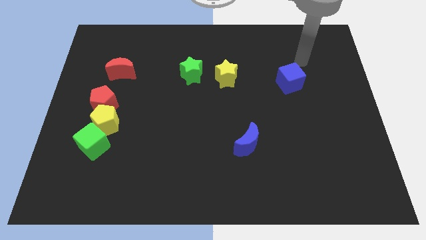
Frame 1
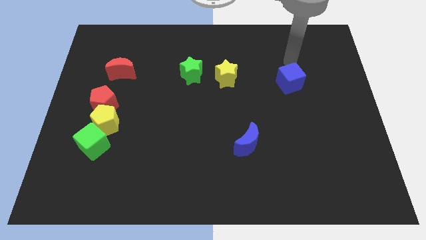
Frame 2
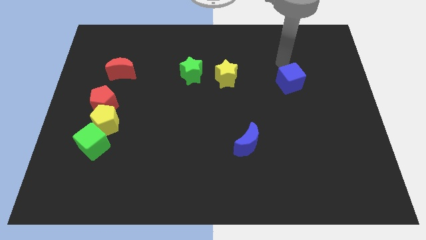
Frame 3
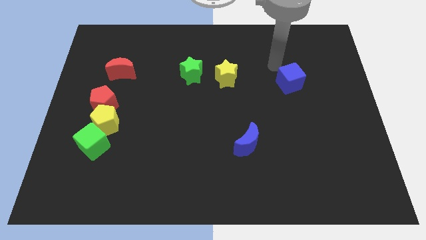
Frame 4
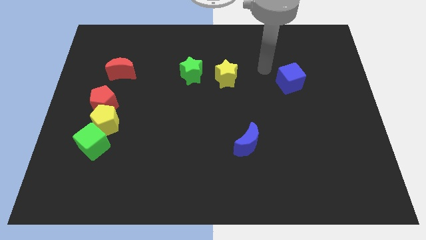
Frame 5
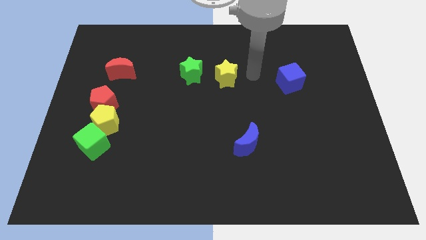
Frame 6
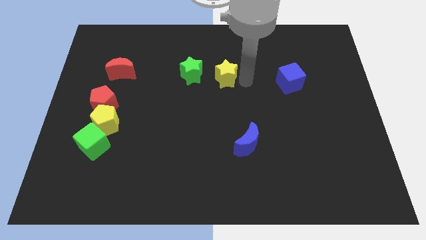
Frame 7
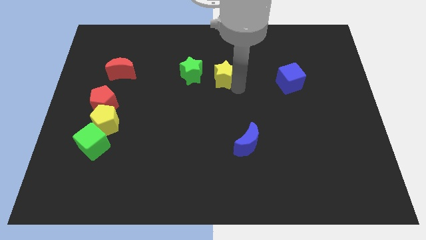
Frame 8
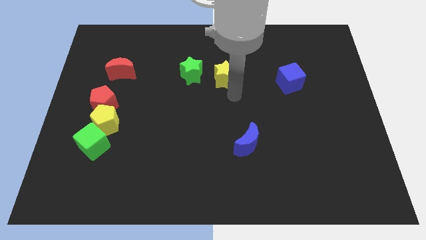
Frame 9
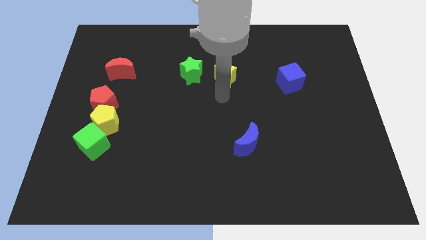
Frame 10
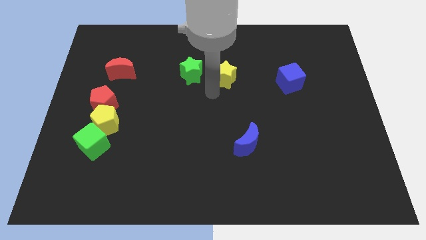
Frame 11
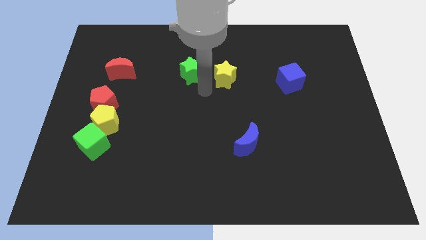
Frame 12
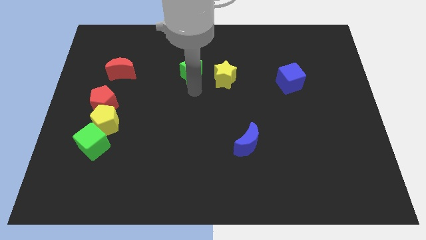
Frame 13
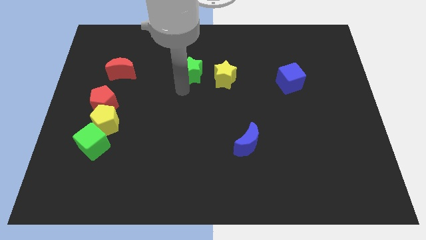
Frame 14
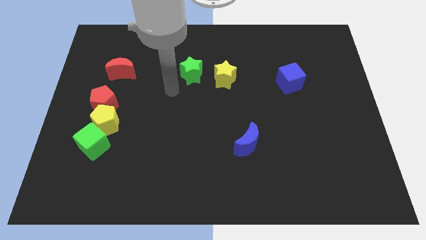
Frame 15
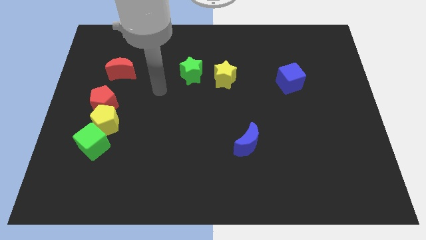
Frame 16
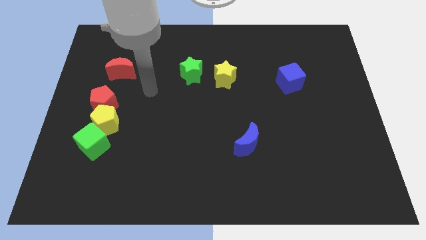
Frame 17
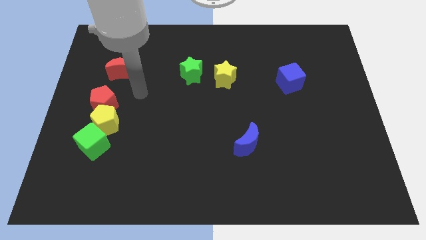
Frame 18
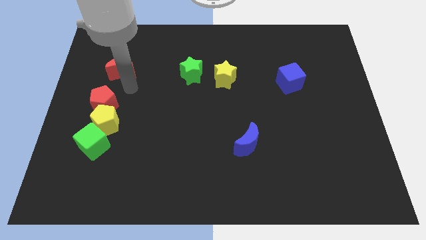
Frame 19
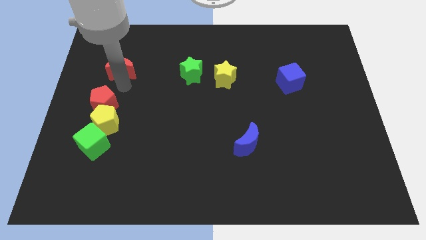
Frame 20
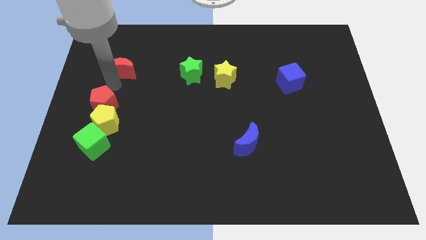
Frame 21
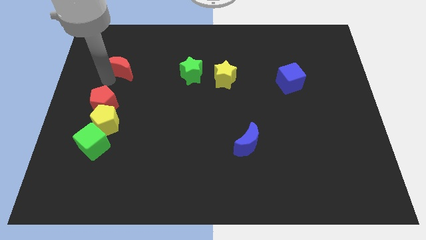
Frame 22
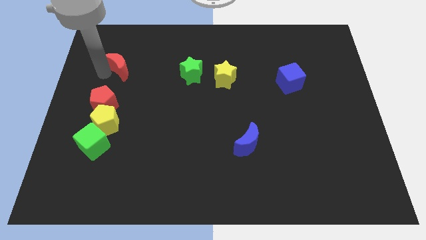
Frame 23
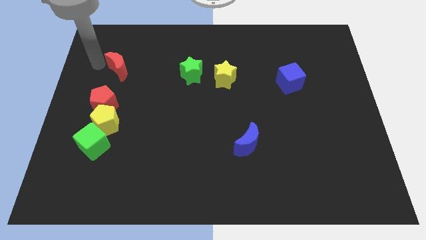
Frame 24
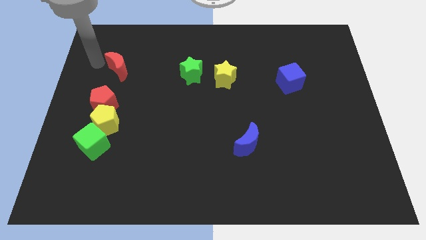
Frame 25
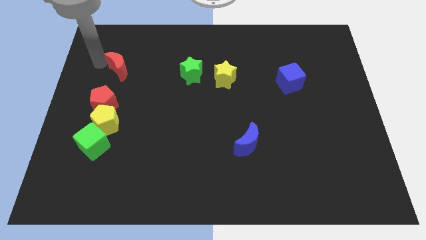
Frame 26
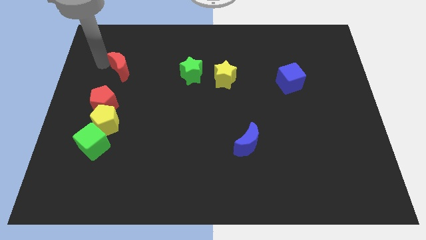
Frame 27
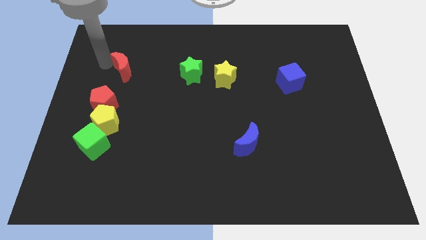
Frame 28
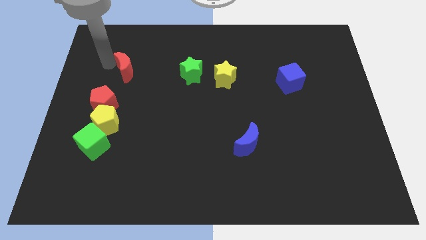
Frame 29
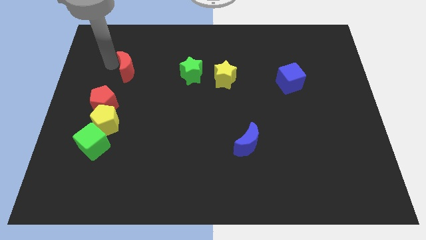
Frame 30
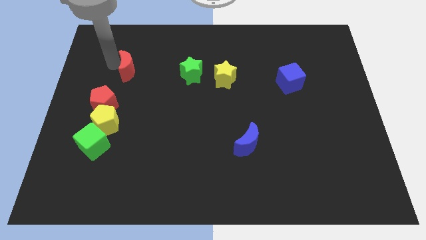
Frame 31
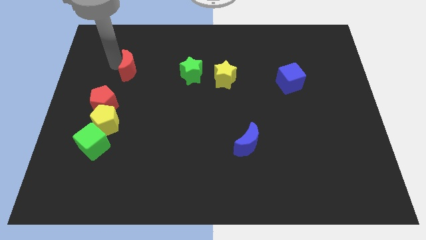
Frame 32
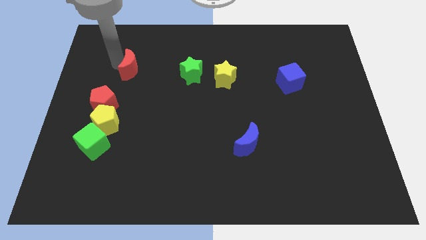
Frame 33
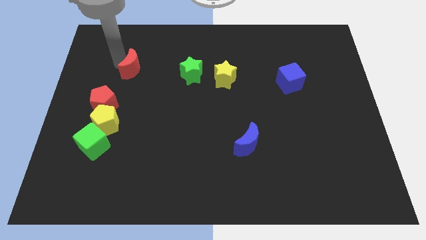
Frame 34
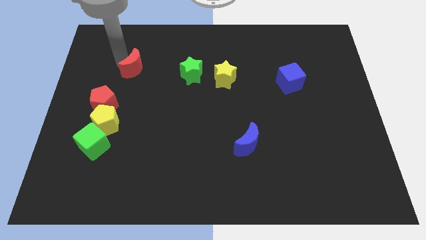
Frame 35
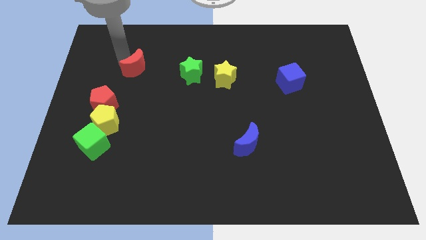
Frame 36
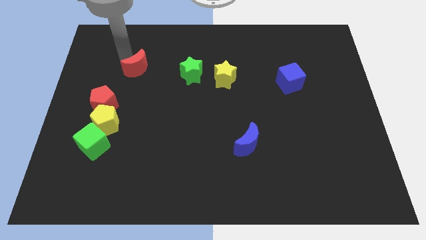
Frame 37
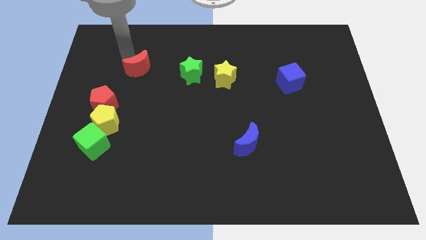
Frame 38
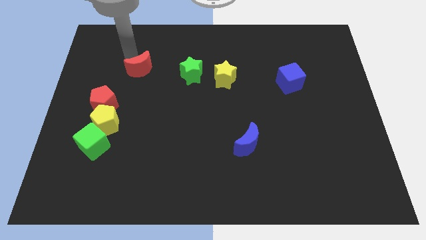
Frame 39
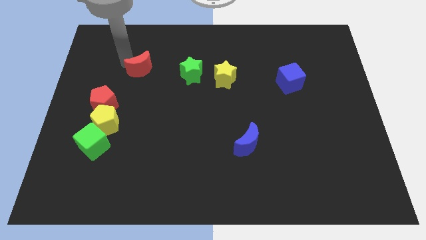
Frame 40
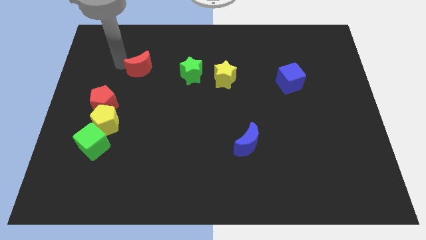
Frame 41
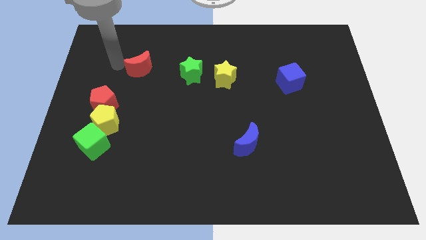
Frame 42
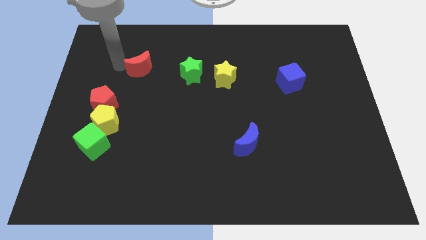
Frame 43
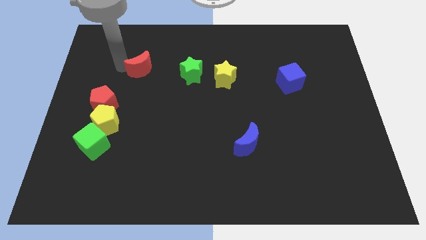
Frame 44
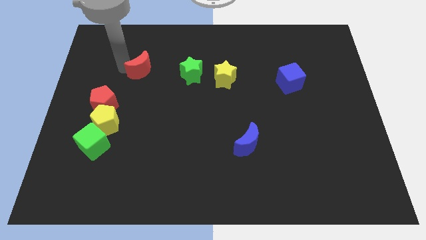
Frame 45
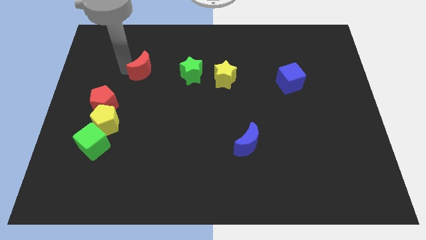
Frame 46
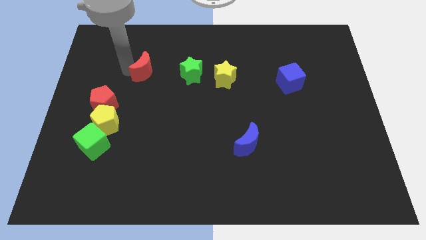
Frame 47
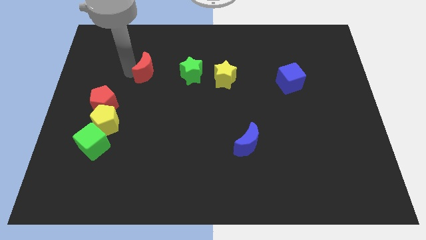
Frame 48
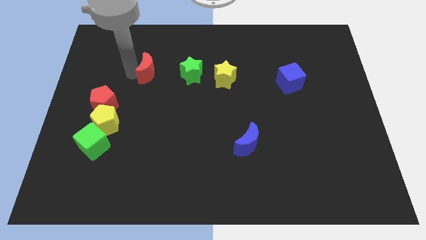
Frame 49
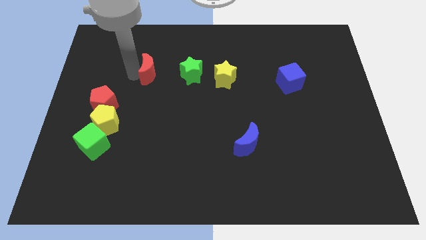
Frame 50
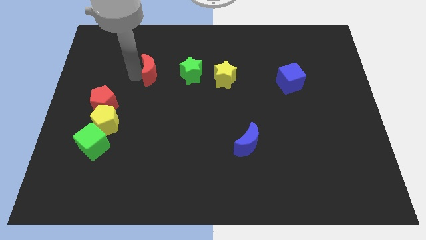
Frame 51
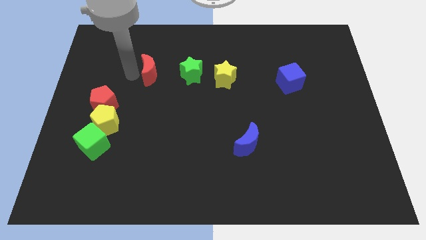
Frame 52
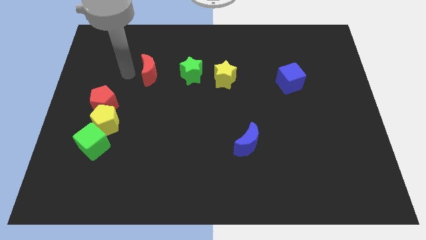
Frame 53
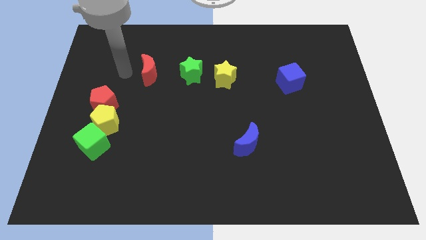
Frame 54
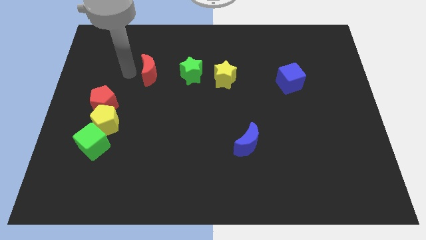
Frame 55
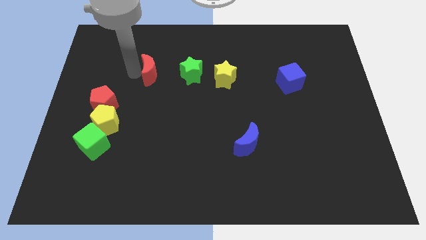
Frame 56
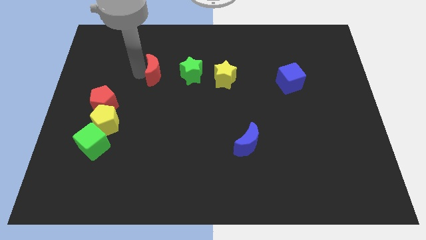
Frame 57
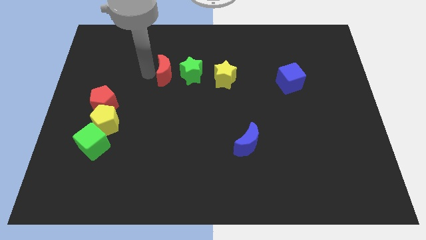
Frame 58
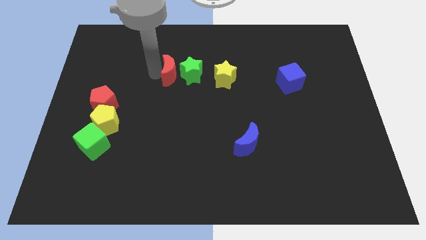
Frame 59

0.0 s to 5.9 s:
put the red moon close to the green star

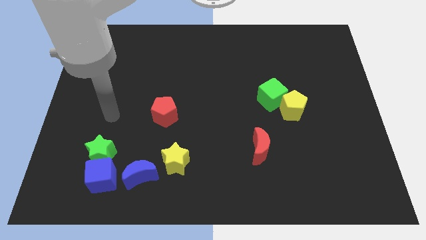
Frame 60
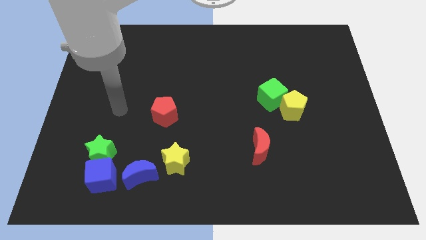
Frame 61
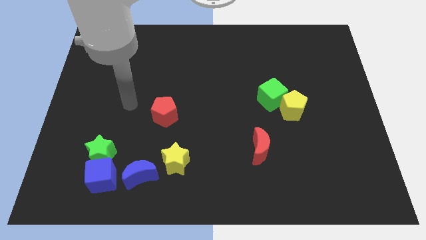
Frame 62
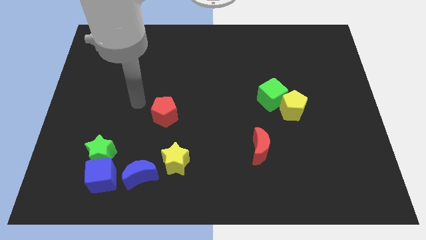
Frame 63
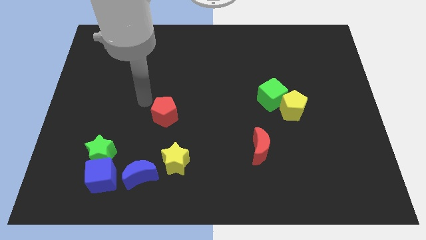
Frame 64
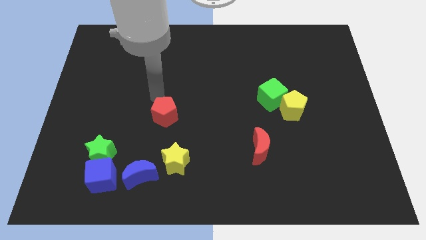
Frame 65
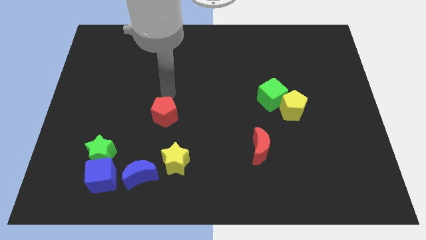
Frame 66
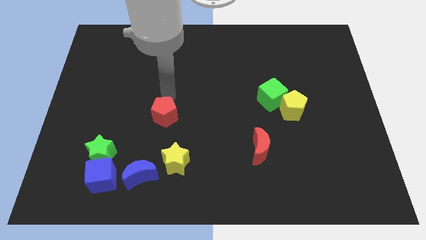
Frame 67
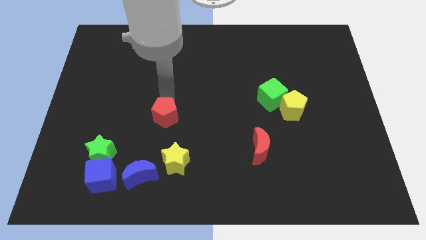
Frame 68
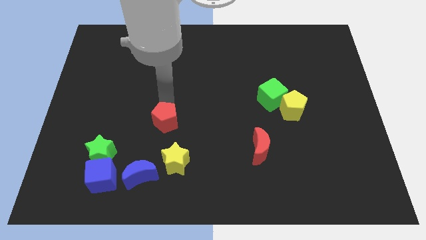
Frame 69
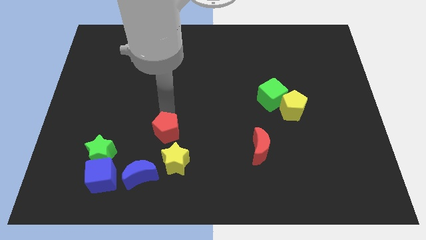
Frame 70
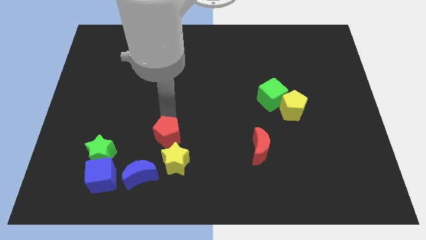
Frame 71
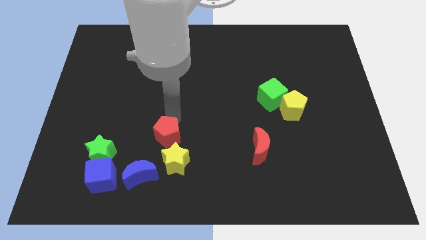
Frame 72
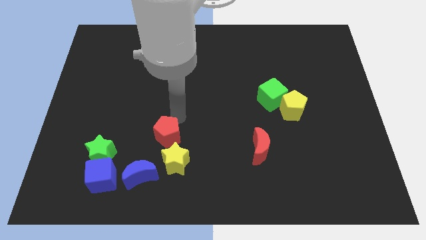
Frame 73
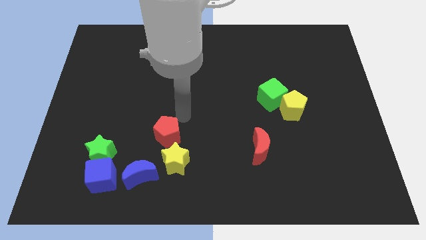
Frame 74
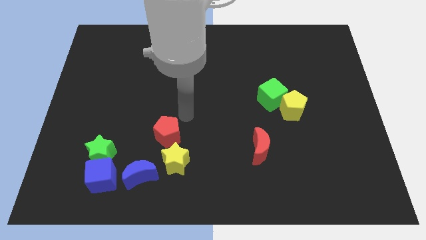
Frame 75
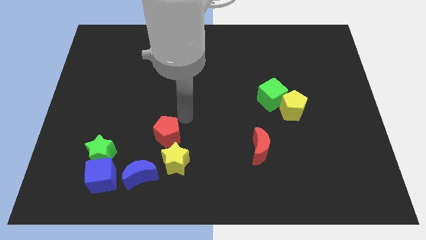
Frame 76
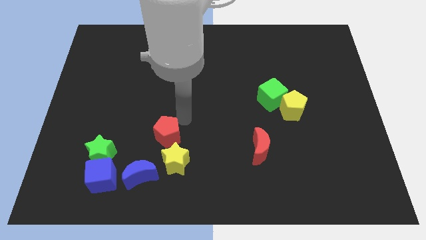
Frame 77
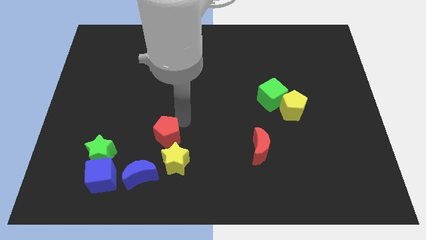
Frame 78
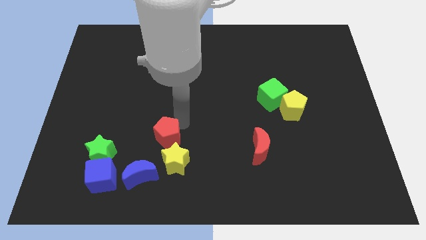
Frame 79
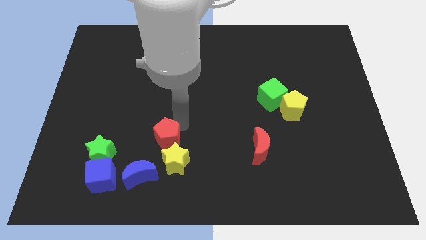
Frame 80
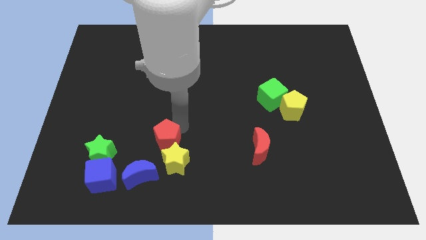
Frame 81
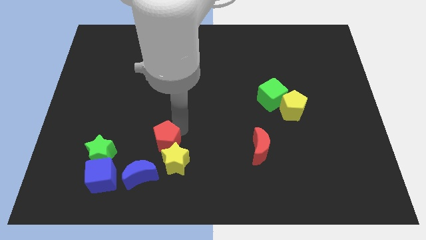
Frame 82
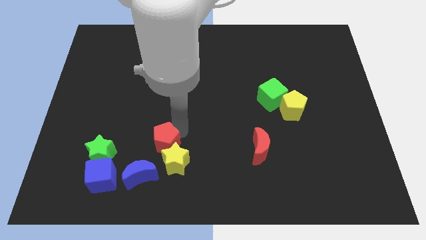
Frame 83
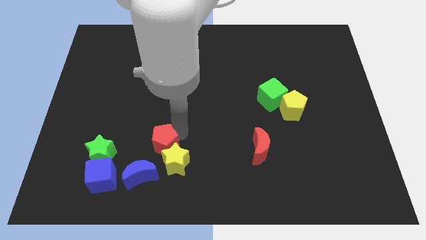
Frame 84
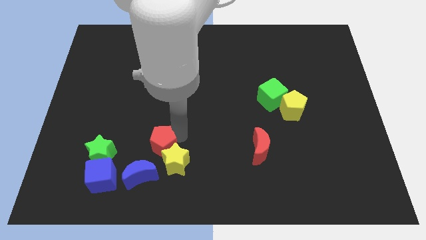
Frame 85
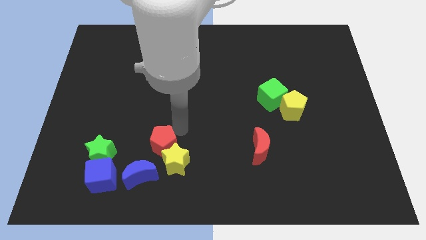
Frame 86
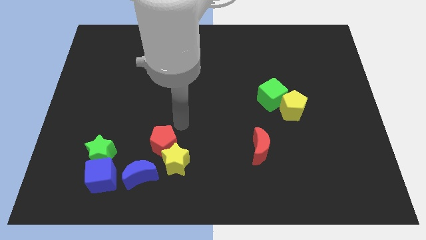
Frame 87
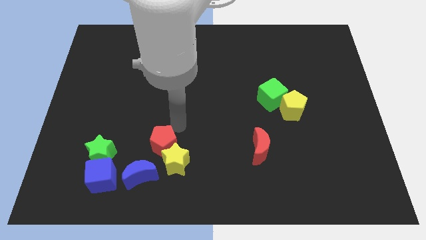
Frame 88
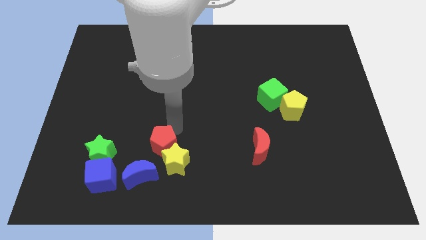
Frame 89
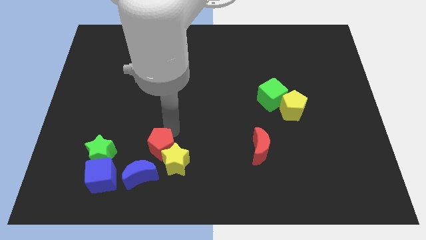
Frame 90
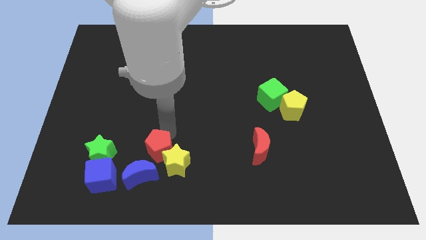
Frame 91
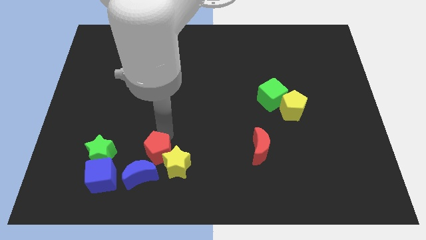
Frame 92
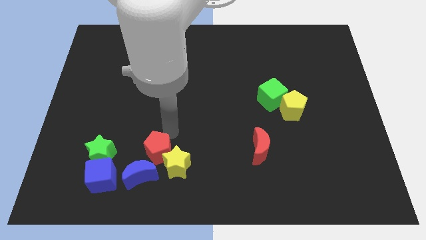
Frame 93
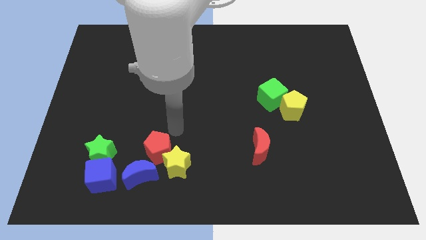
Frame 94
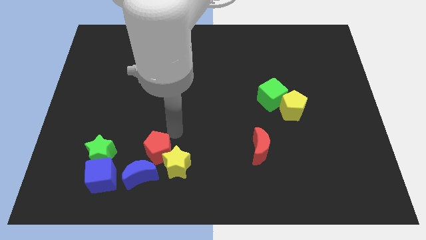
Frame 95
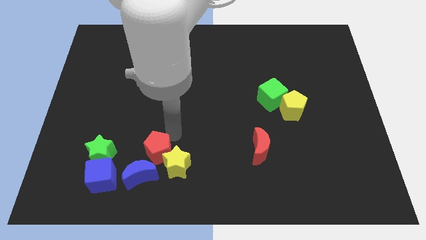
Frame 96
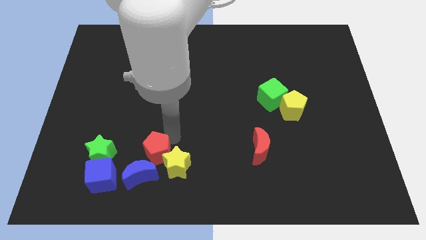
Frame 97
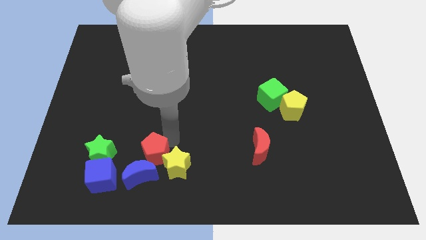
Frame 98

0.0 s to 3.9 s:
move the red pentagon close to the blue moon
